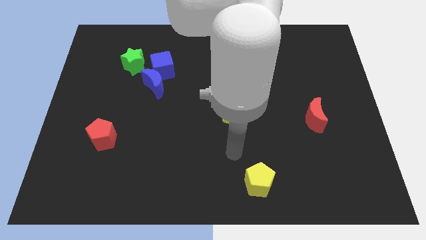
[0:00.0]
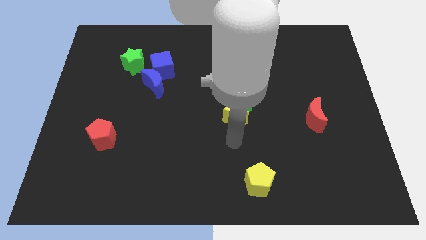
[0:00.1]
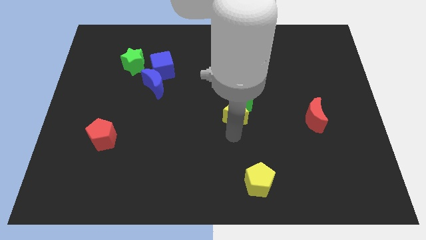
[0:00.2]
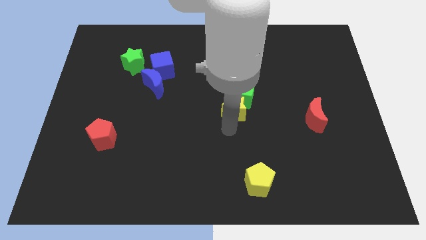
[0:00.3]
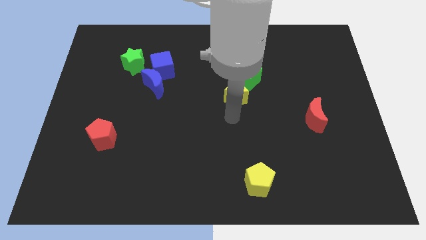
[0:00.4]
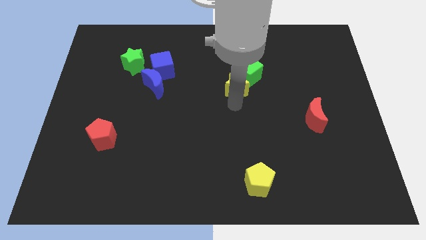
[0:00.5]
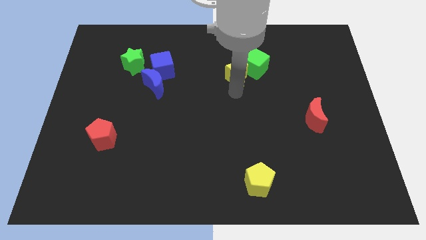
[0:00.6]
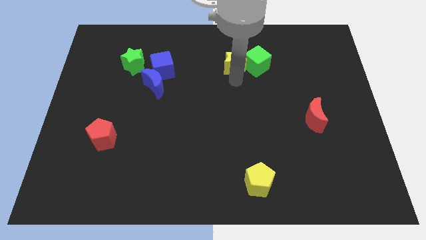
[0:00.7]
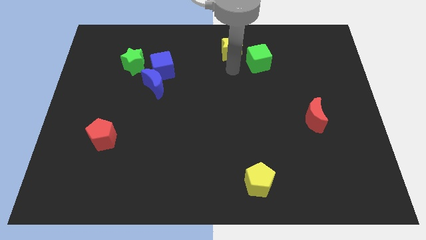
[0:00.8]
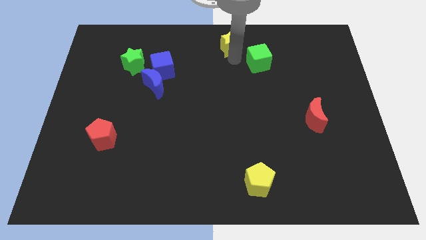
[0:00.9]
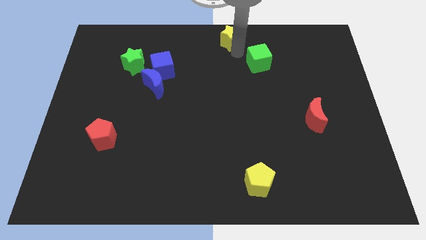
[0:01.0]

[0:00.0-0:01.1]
pull the green cube apart from the yellow star

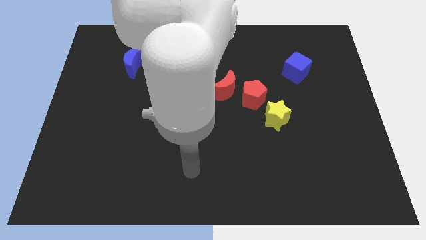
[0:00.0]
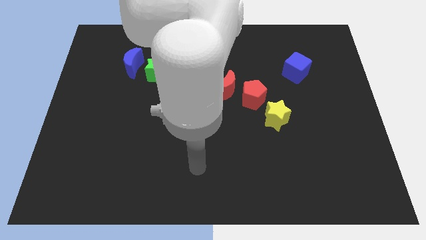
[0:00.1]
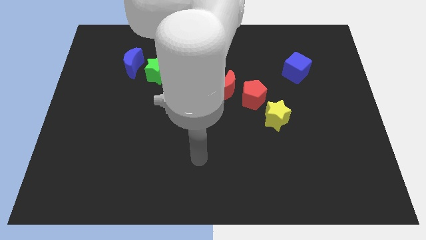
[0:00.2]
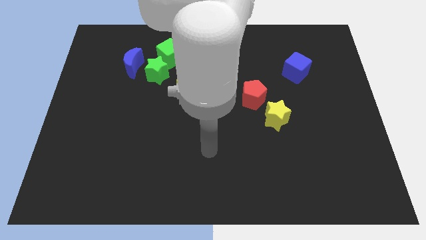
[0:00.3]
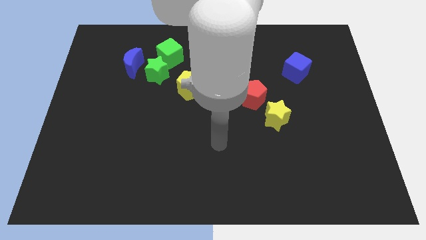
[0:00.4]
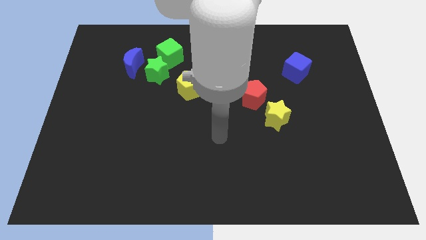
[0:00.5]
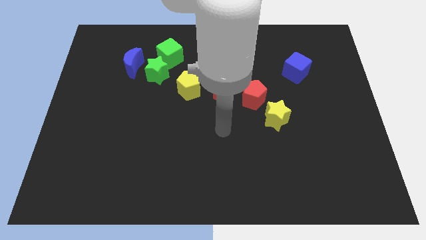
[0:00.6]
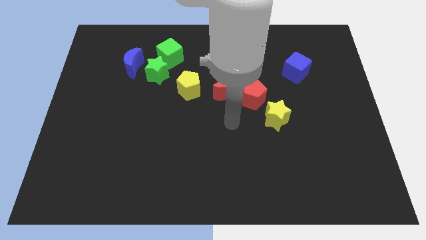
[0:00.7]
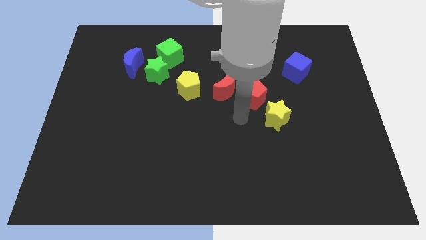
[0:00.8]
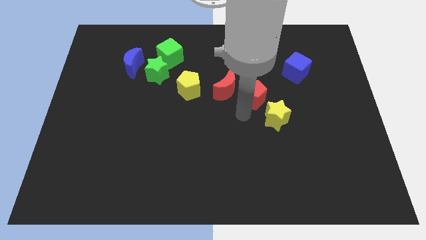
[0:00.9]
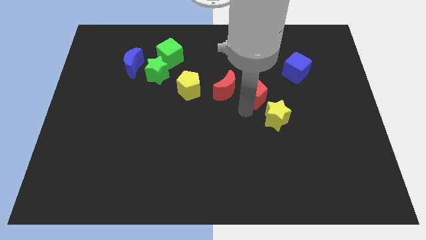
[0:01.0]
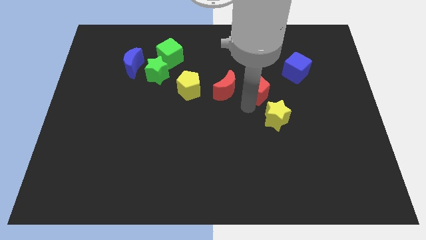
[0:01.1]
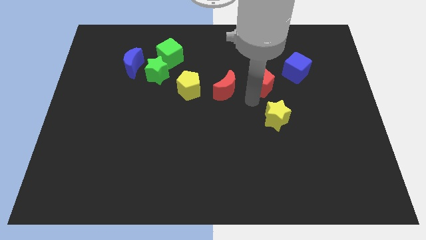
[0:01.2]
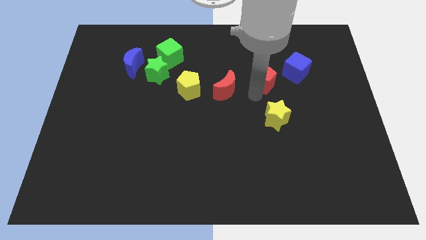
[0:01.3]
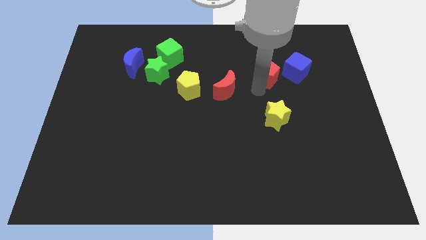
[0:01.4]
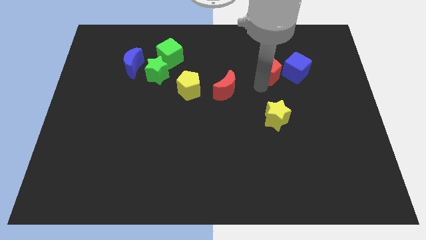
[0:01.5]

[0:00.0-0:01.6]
pull the red pentagon apart from the red moon and yellow star

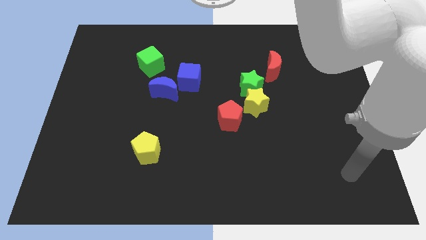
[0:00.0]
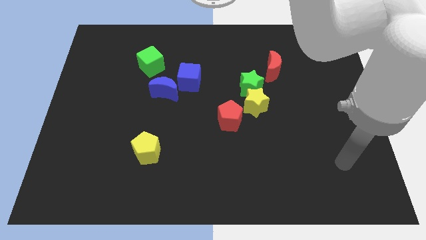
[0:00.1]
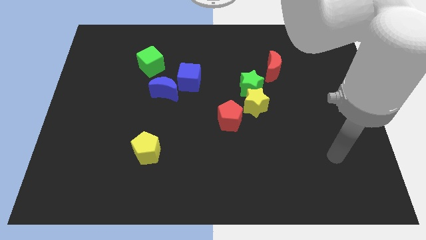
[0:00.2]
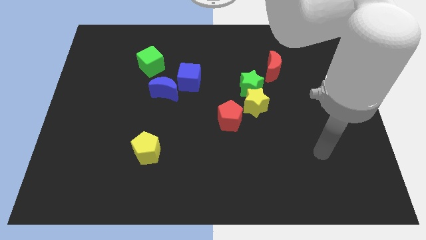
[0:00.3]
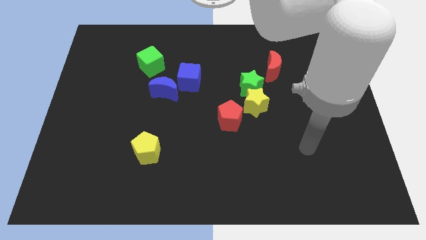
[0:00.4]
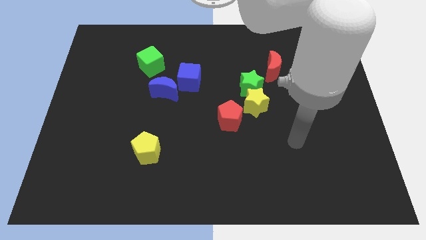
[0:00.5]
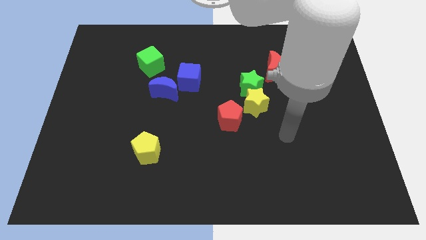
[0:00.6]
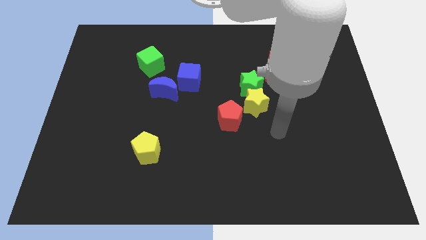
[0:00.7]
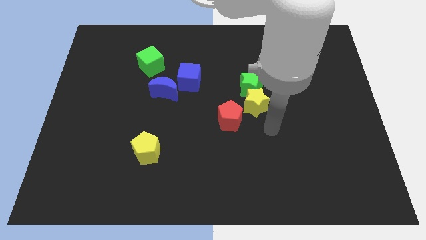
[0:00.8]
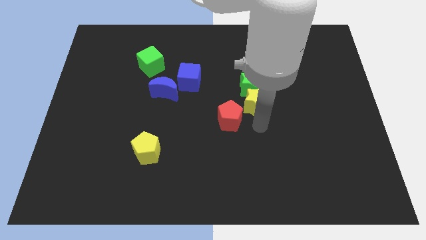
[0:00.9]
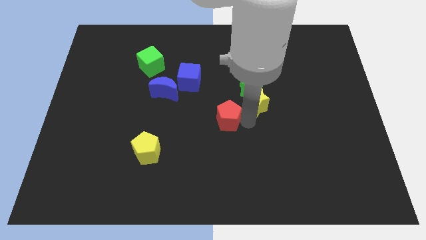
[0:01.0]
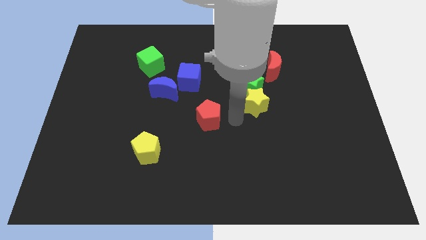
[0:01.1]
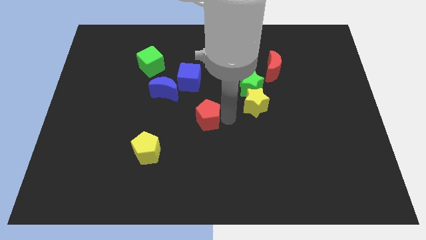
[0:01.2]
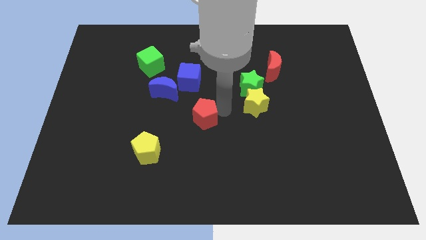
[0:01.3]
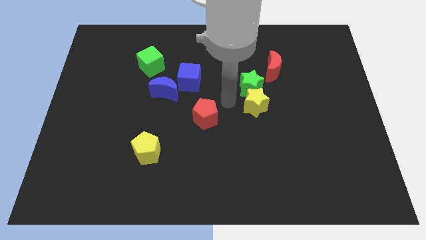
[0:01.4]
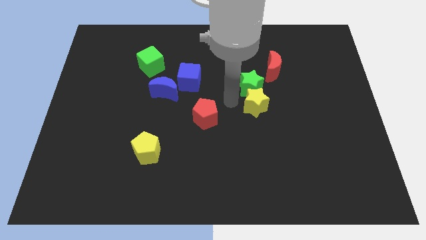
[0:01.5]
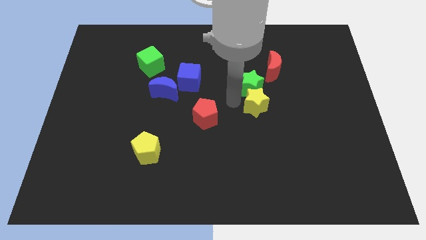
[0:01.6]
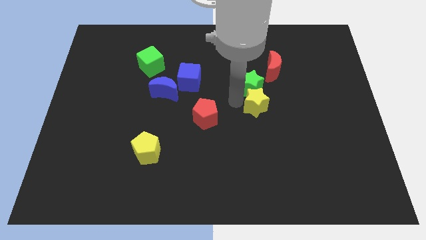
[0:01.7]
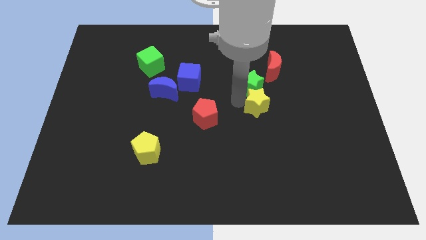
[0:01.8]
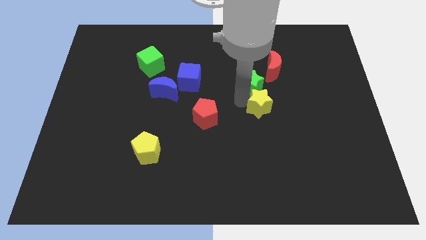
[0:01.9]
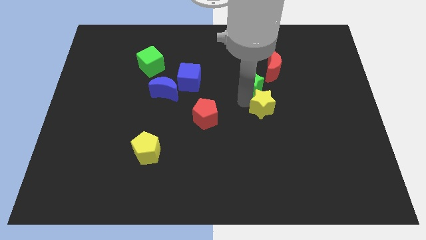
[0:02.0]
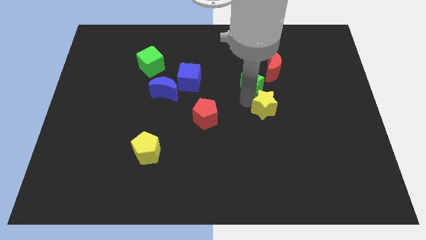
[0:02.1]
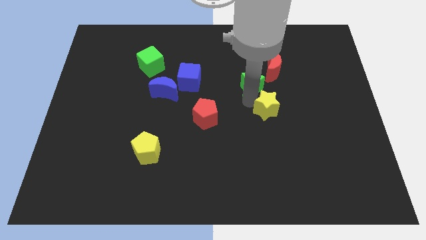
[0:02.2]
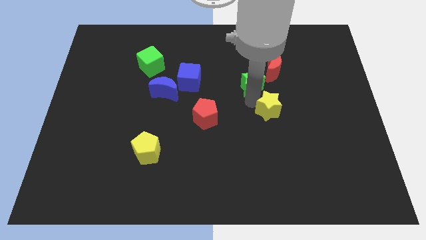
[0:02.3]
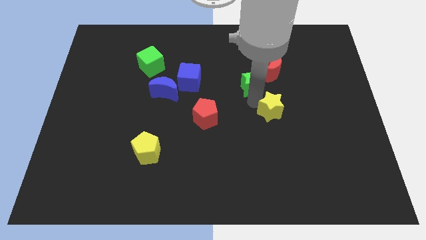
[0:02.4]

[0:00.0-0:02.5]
move the yellow star away from the green star and red pentagon

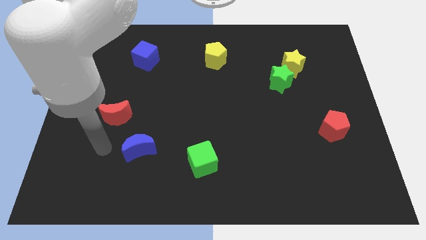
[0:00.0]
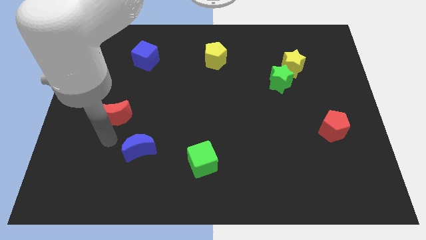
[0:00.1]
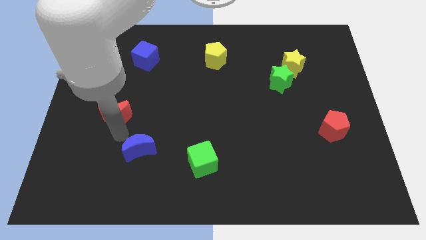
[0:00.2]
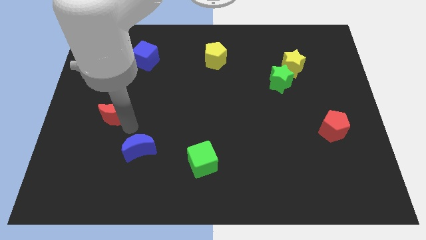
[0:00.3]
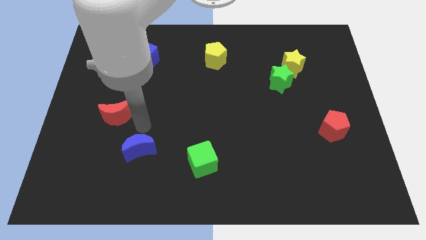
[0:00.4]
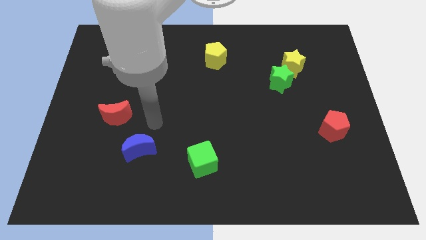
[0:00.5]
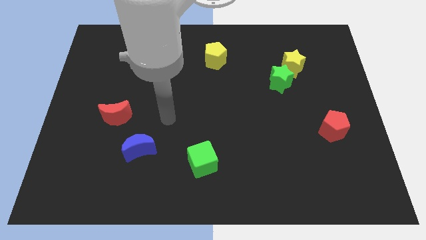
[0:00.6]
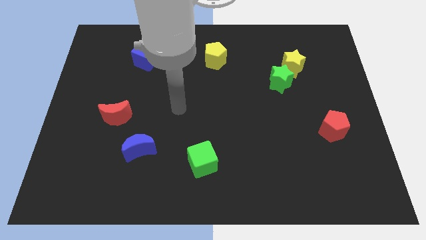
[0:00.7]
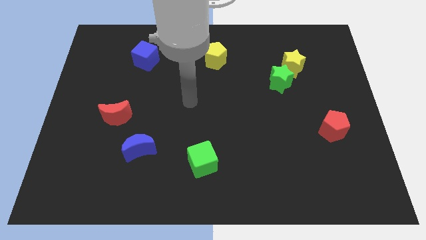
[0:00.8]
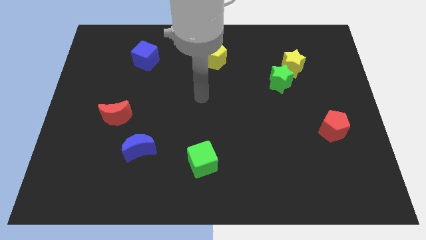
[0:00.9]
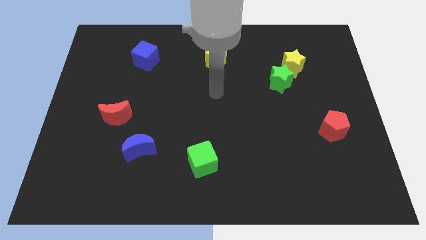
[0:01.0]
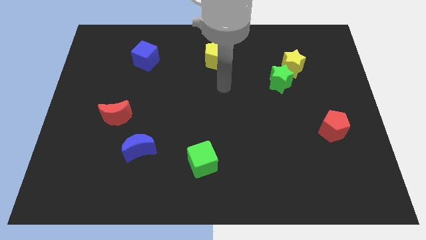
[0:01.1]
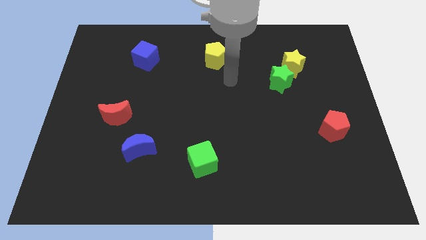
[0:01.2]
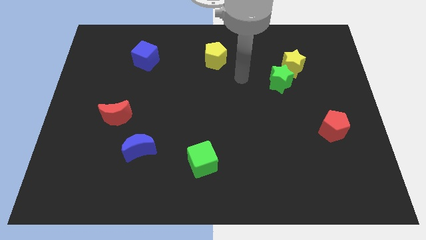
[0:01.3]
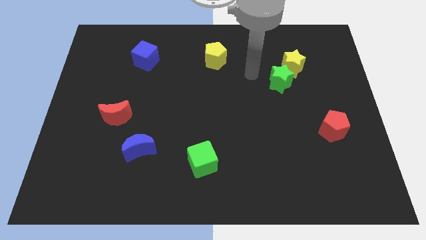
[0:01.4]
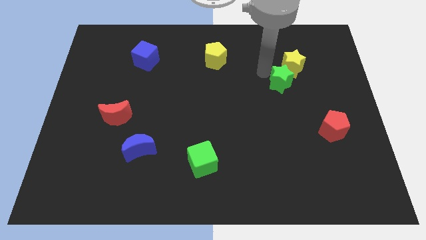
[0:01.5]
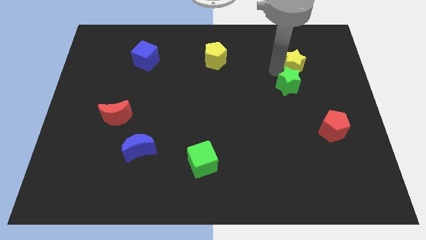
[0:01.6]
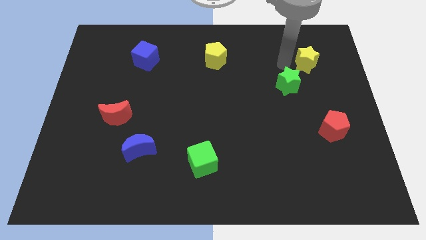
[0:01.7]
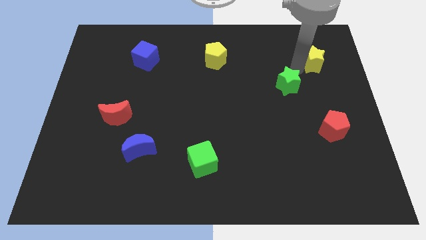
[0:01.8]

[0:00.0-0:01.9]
move the green star away from the yellow star

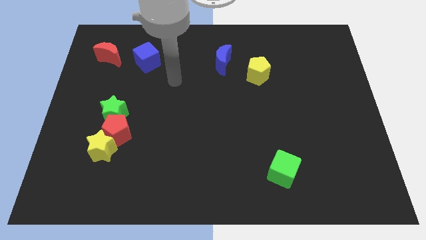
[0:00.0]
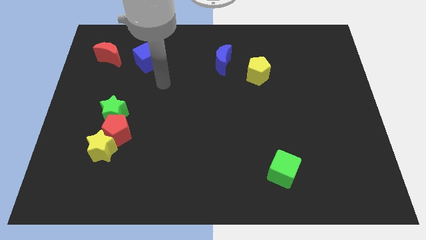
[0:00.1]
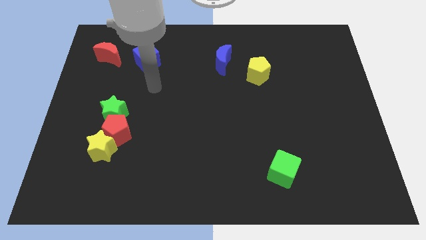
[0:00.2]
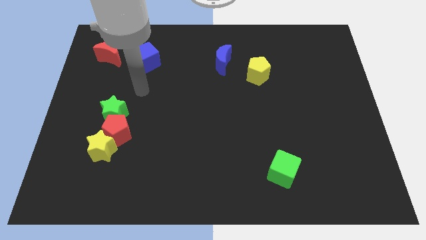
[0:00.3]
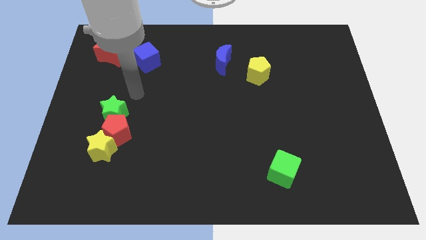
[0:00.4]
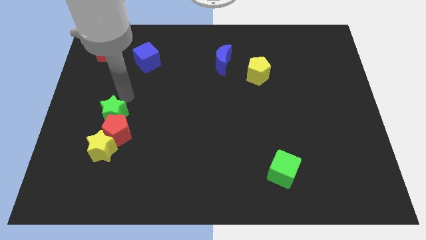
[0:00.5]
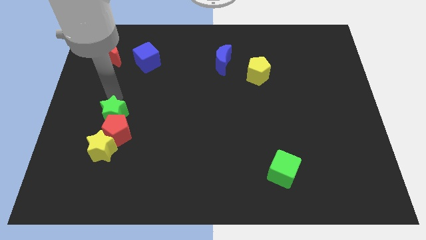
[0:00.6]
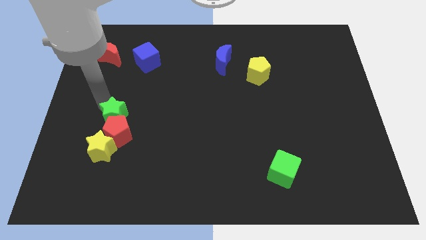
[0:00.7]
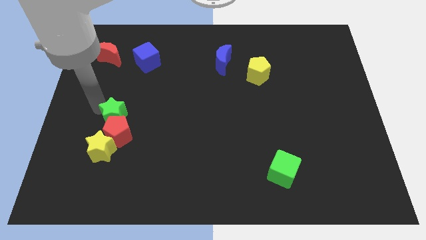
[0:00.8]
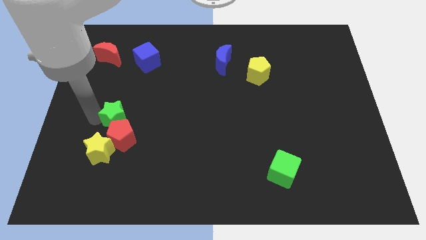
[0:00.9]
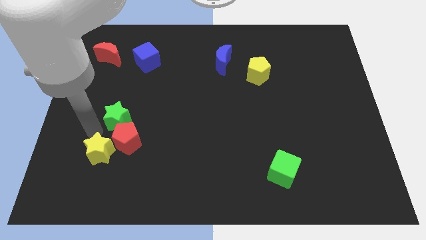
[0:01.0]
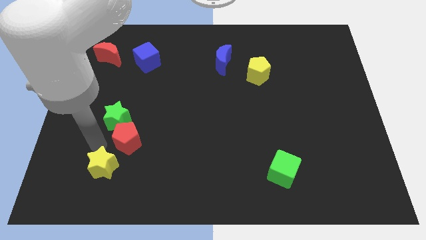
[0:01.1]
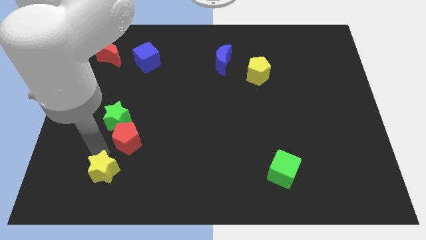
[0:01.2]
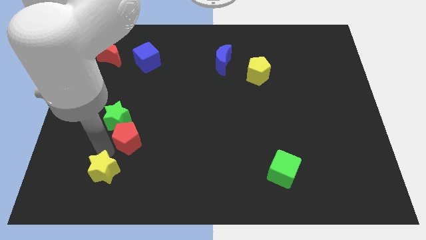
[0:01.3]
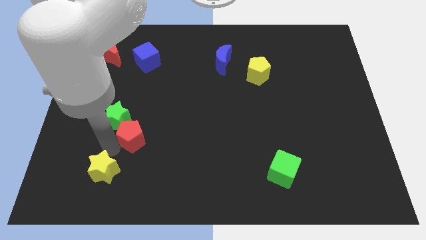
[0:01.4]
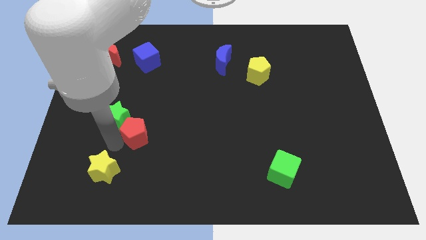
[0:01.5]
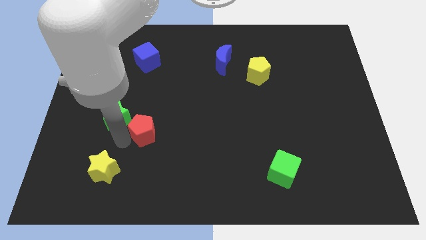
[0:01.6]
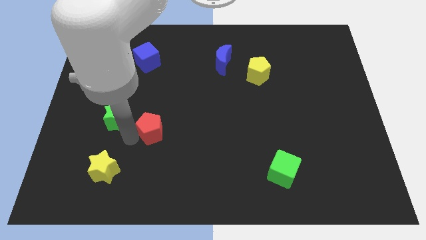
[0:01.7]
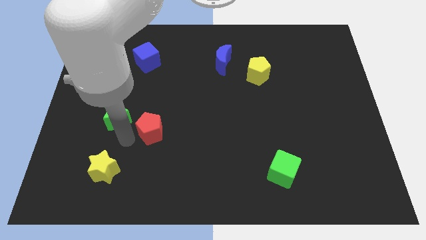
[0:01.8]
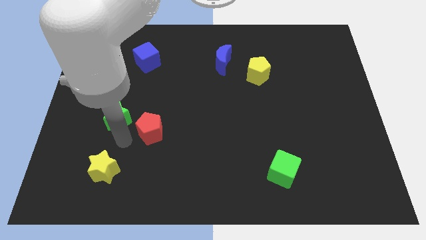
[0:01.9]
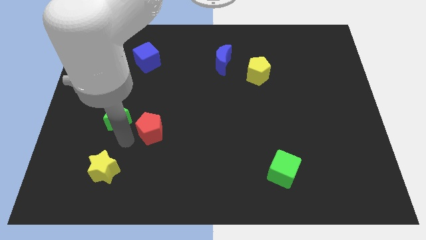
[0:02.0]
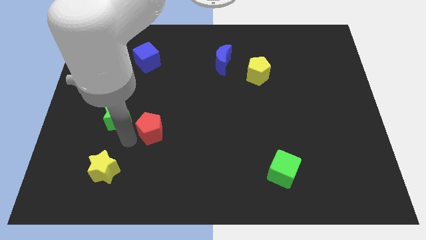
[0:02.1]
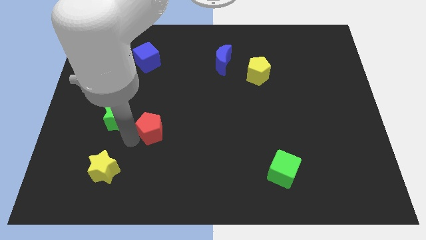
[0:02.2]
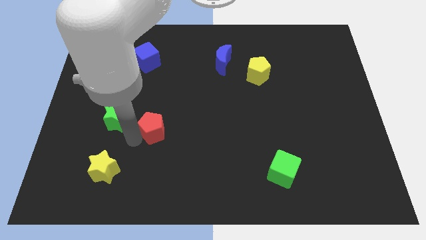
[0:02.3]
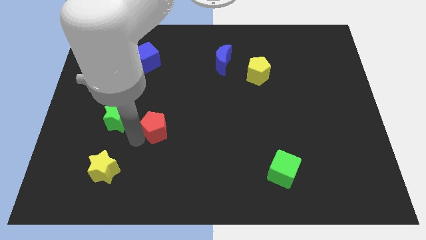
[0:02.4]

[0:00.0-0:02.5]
pull the red pentagon apart from the yellow star and green star
